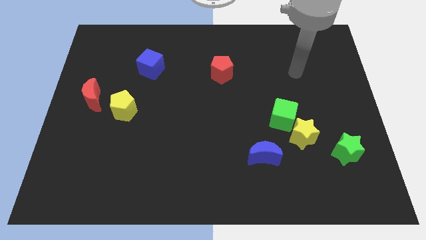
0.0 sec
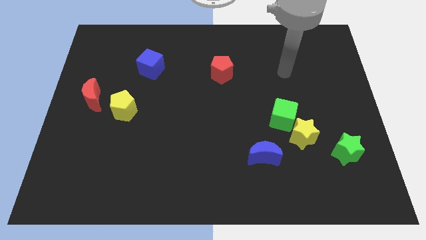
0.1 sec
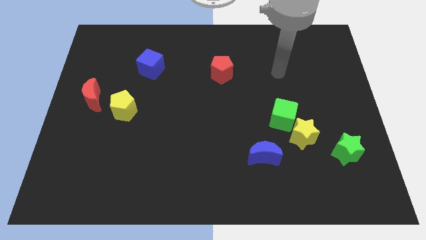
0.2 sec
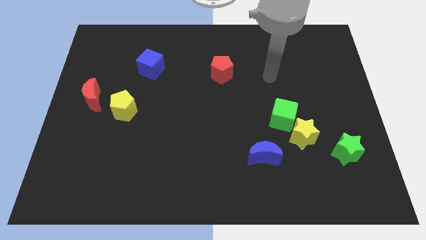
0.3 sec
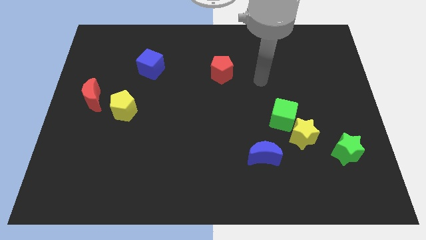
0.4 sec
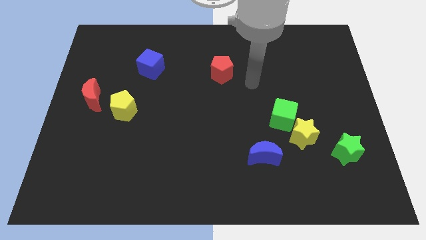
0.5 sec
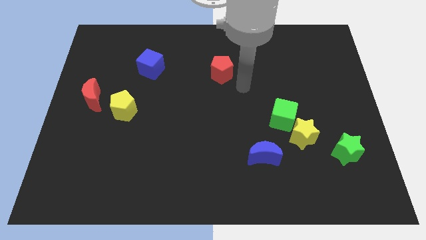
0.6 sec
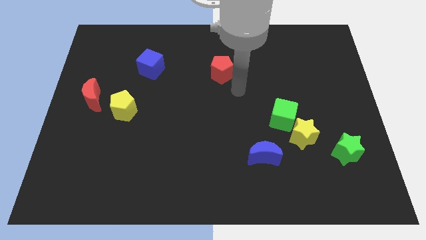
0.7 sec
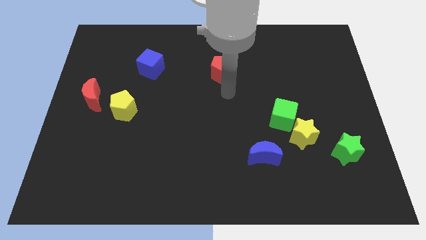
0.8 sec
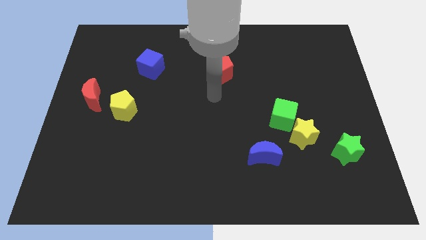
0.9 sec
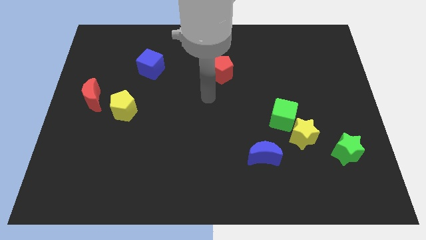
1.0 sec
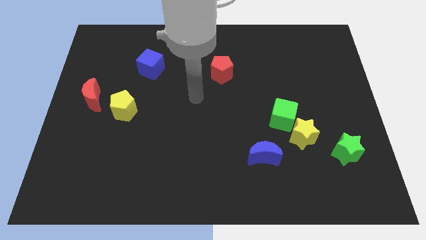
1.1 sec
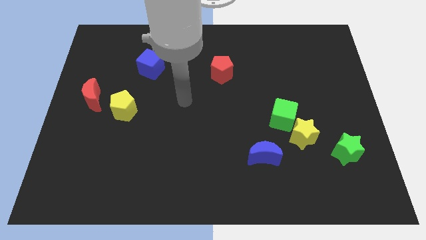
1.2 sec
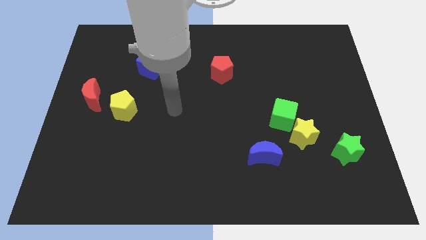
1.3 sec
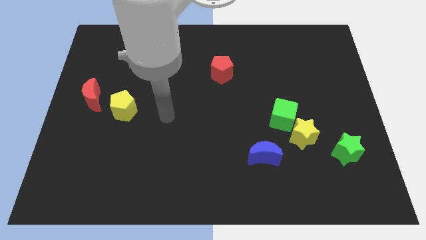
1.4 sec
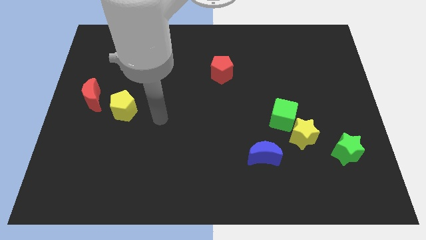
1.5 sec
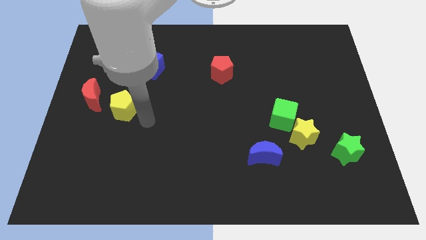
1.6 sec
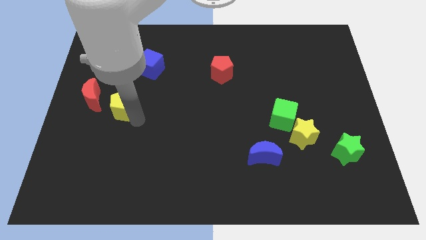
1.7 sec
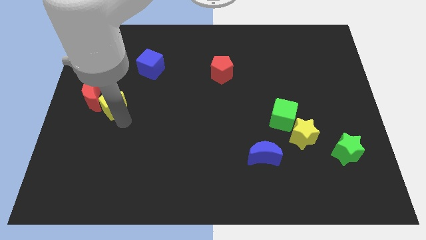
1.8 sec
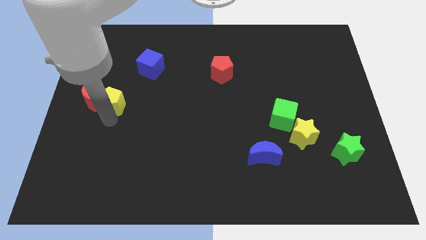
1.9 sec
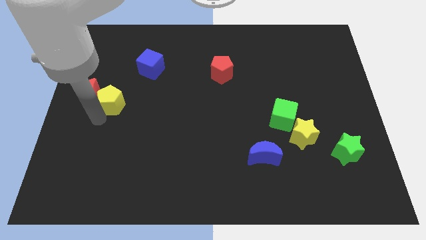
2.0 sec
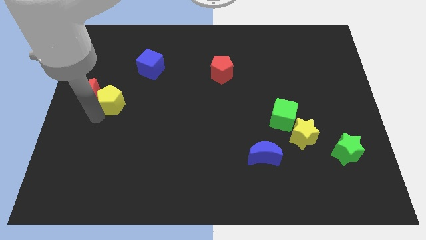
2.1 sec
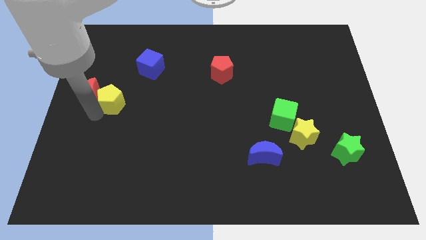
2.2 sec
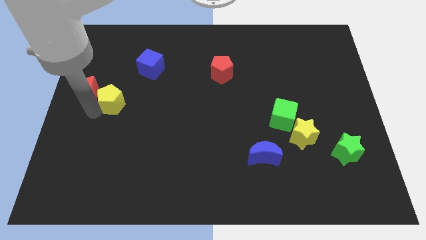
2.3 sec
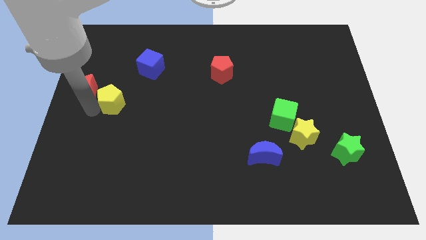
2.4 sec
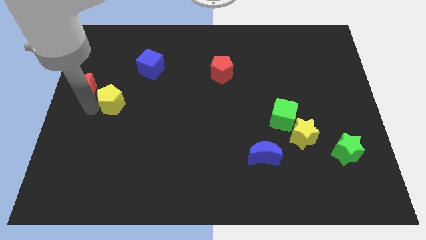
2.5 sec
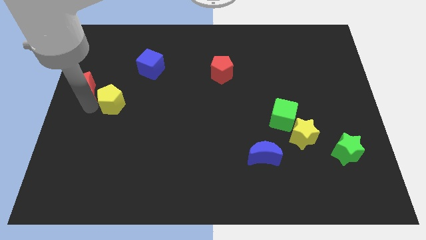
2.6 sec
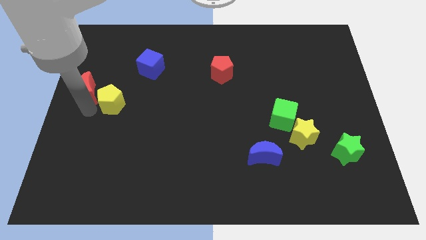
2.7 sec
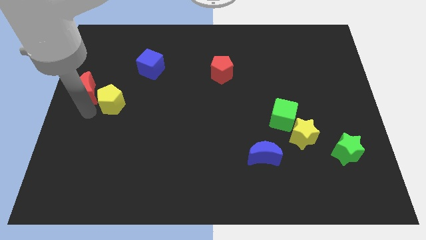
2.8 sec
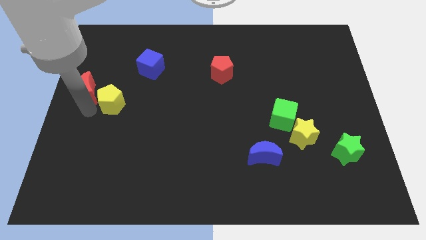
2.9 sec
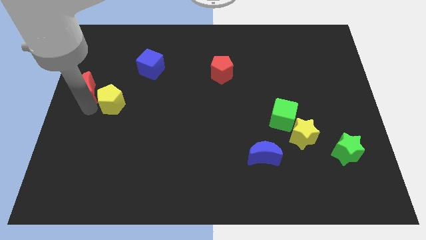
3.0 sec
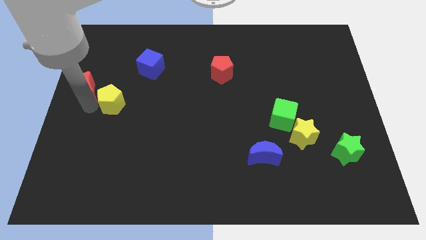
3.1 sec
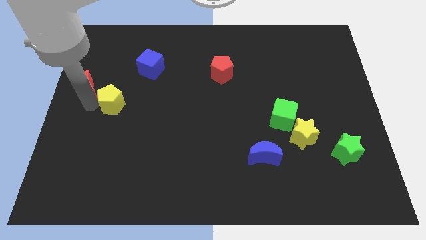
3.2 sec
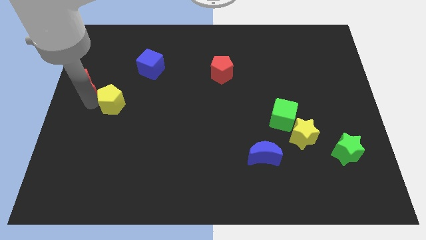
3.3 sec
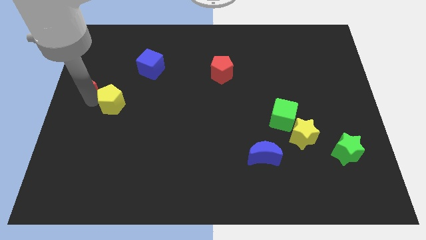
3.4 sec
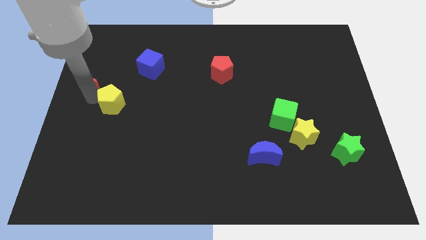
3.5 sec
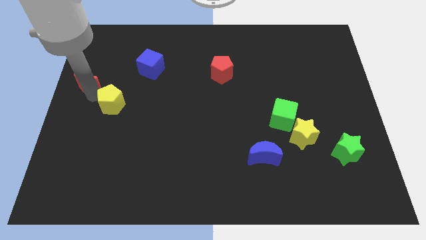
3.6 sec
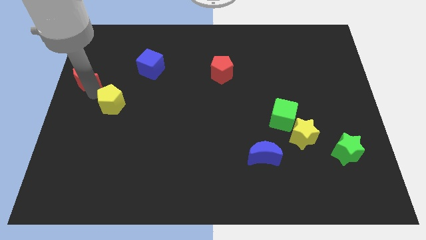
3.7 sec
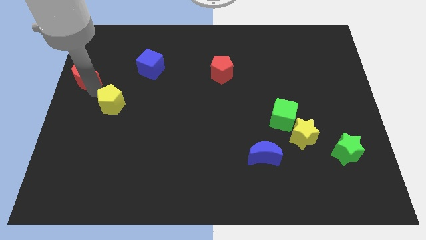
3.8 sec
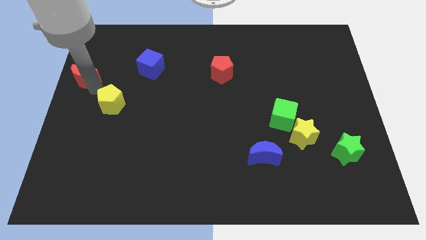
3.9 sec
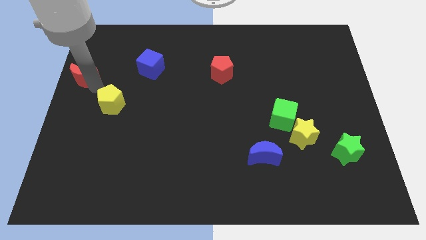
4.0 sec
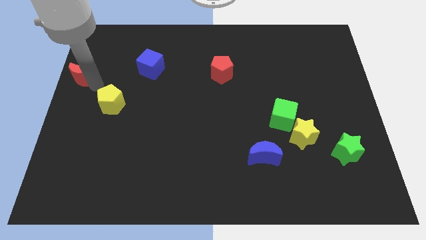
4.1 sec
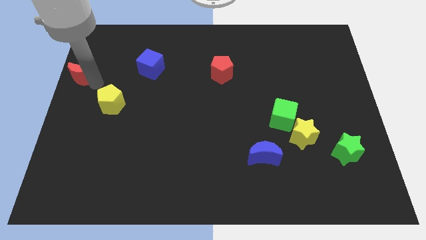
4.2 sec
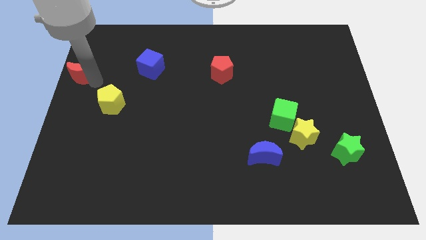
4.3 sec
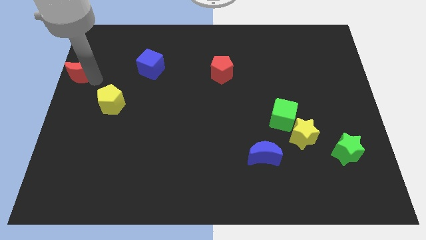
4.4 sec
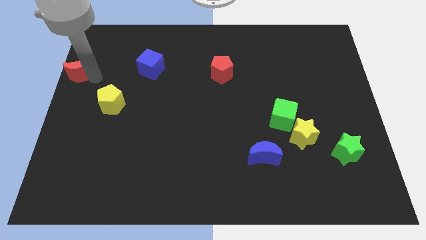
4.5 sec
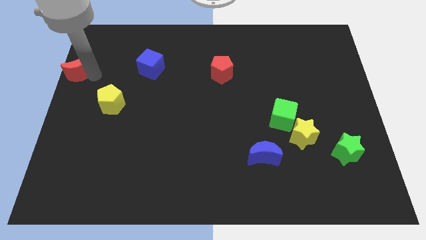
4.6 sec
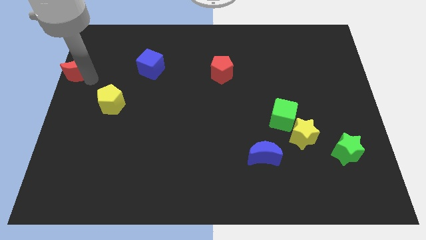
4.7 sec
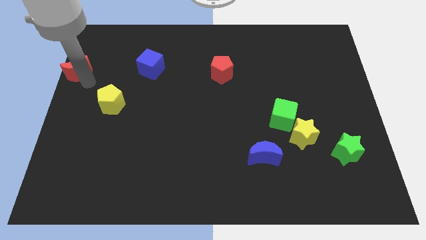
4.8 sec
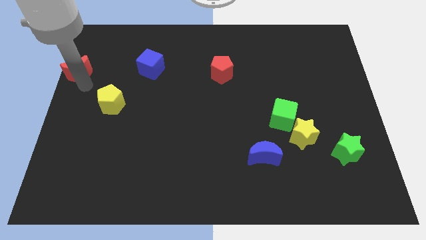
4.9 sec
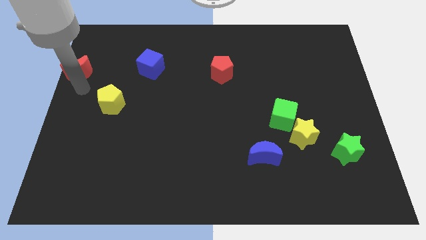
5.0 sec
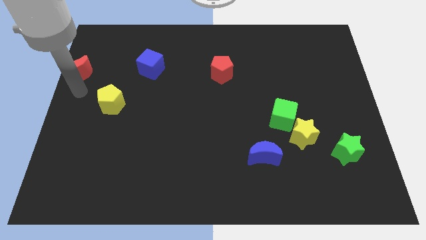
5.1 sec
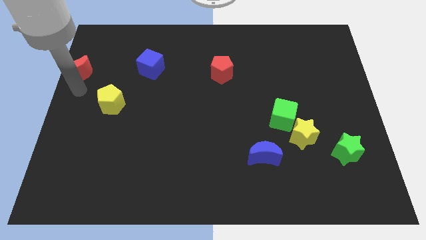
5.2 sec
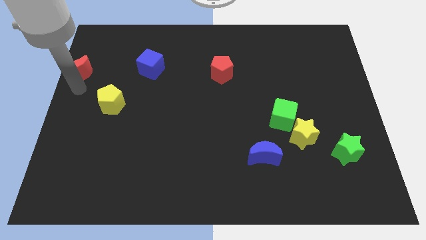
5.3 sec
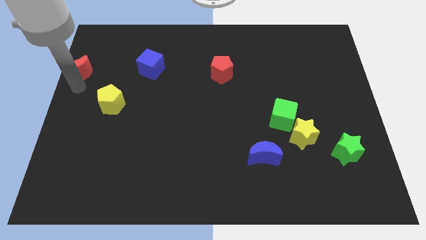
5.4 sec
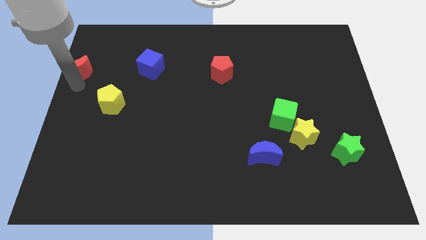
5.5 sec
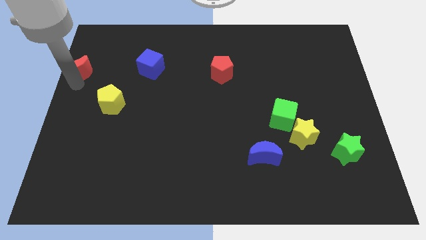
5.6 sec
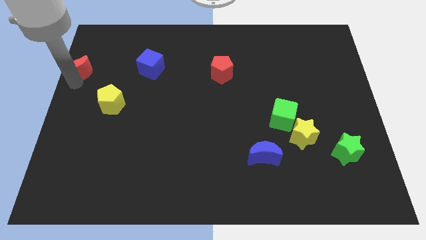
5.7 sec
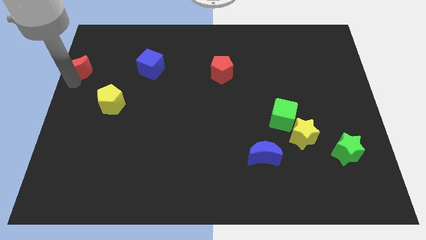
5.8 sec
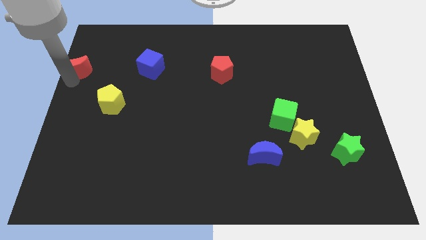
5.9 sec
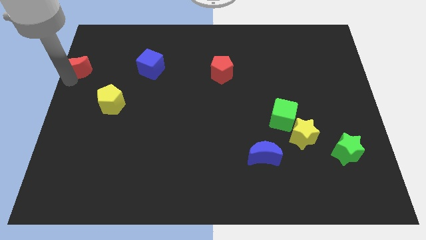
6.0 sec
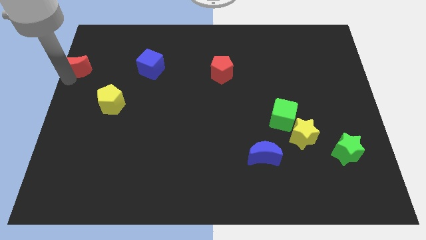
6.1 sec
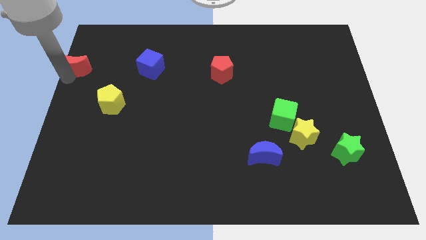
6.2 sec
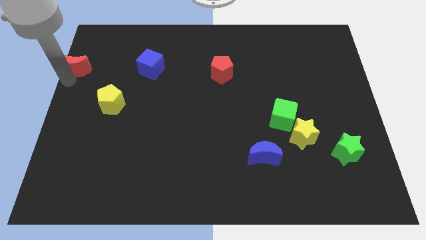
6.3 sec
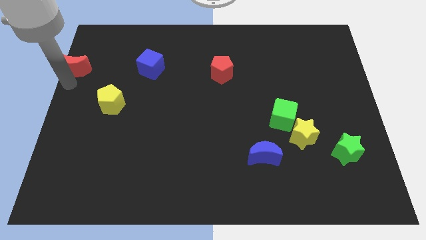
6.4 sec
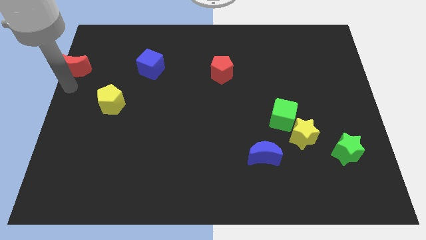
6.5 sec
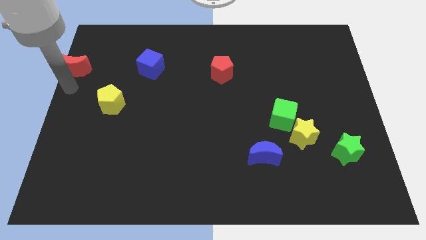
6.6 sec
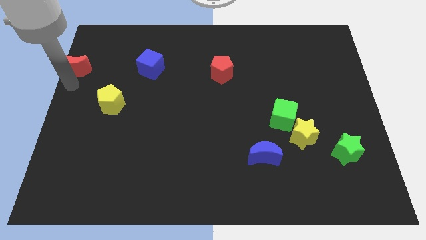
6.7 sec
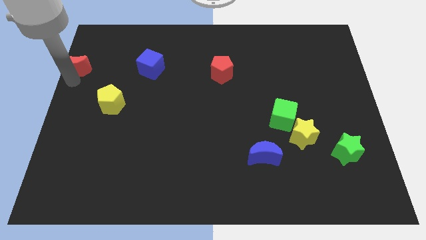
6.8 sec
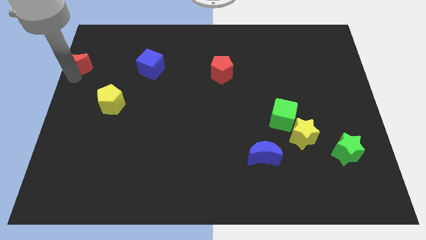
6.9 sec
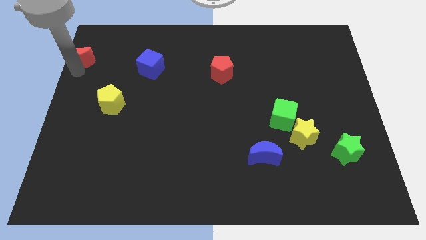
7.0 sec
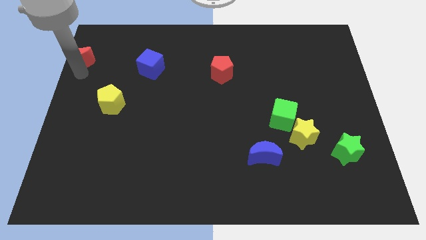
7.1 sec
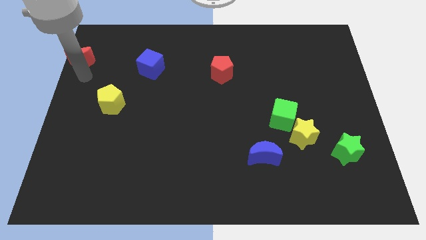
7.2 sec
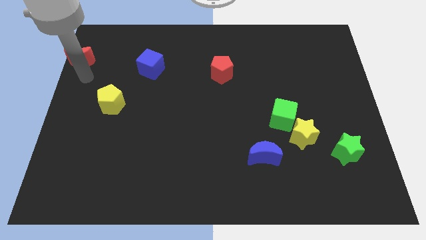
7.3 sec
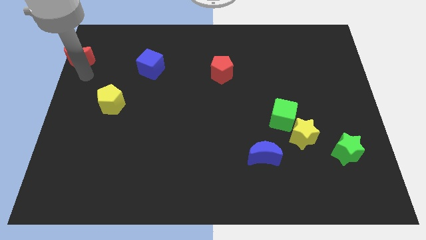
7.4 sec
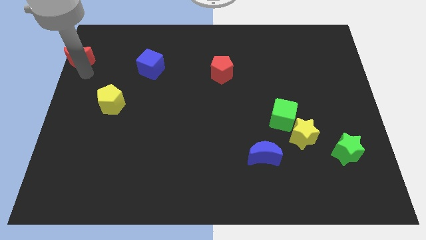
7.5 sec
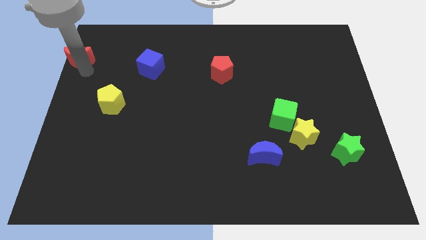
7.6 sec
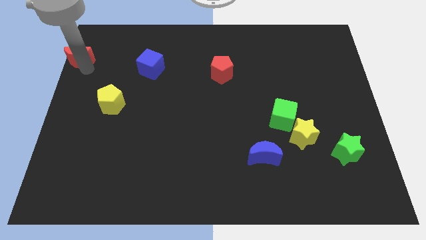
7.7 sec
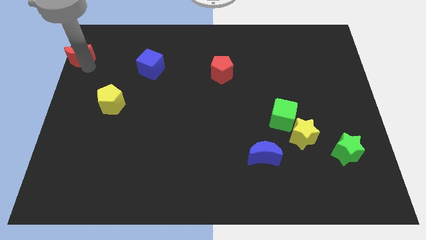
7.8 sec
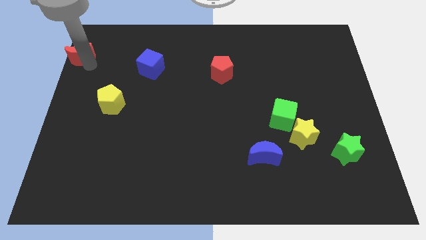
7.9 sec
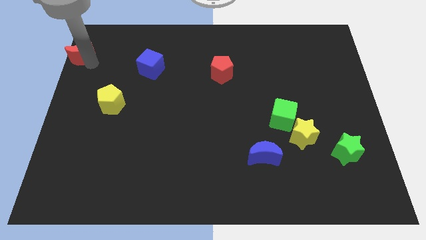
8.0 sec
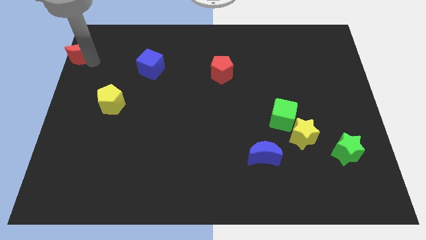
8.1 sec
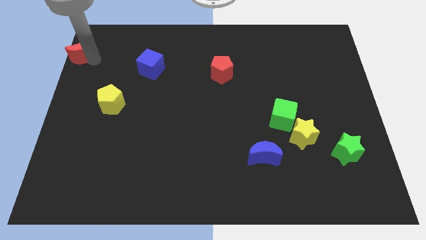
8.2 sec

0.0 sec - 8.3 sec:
move the red moon to the top left corner
